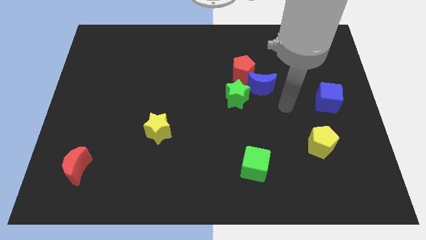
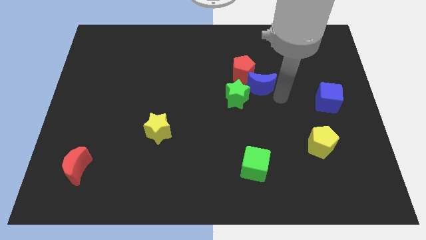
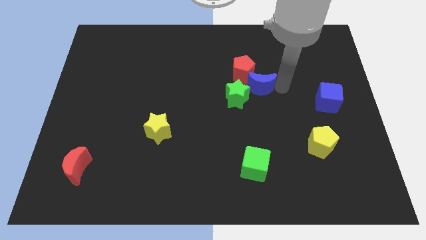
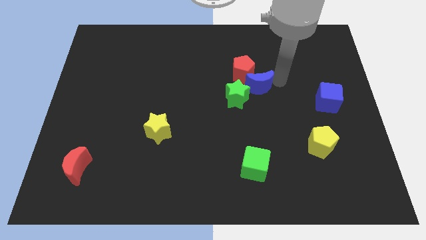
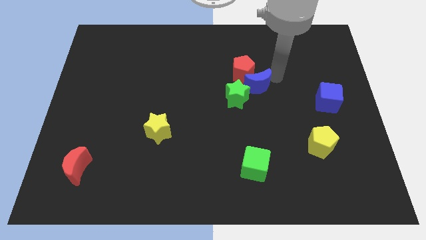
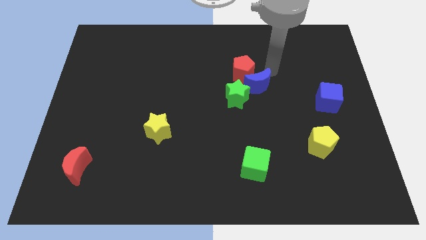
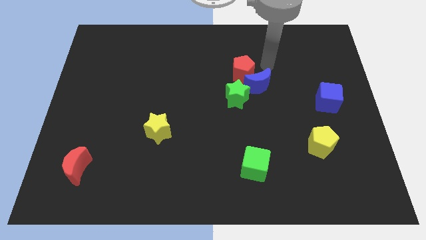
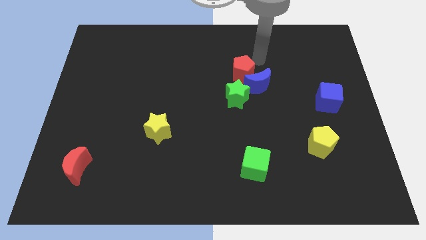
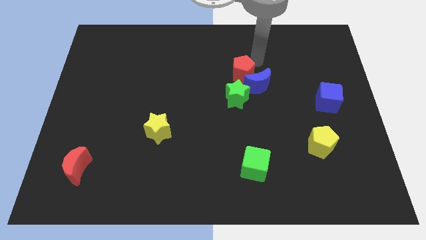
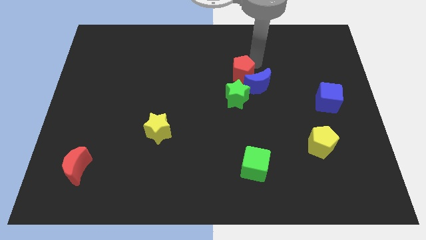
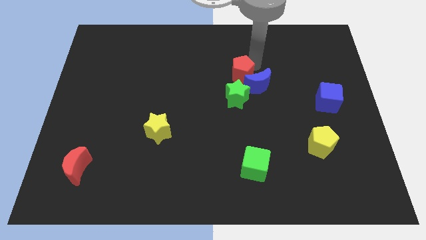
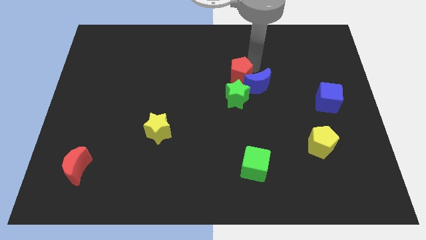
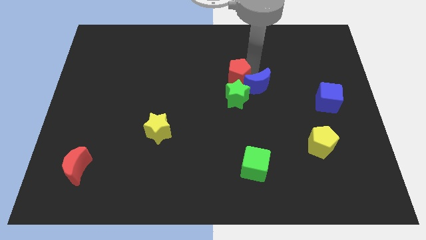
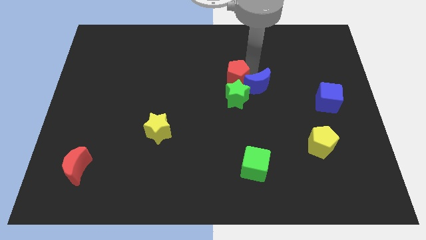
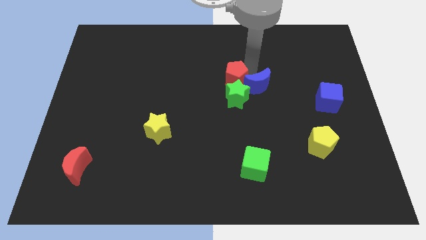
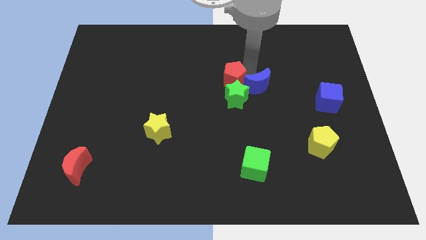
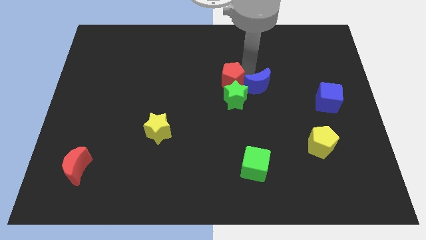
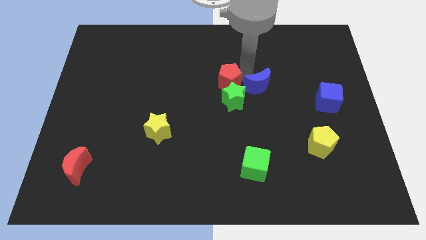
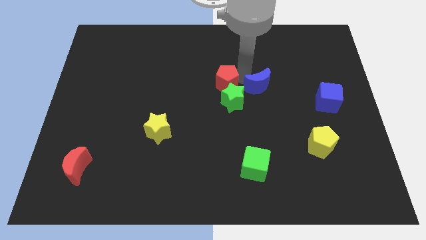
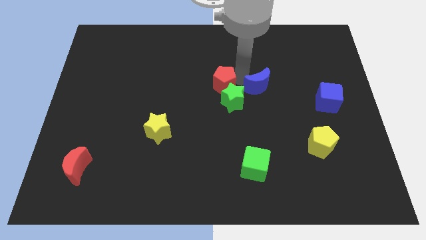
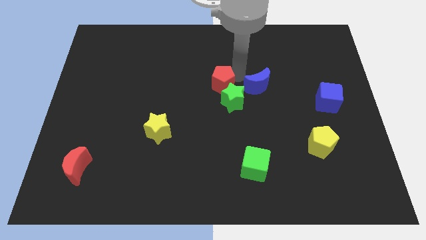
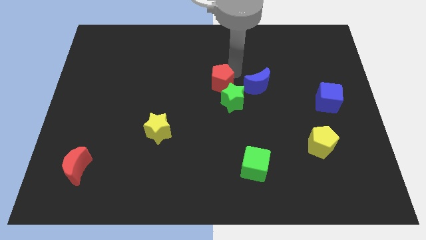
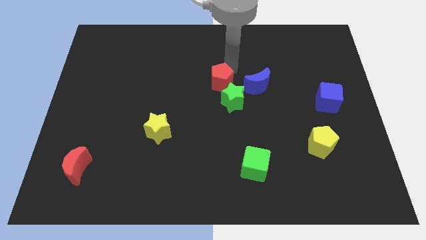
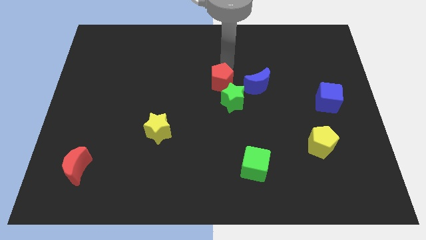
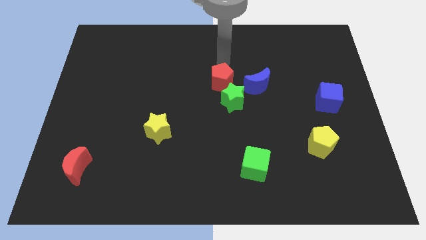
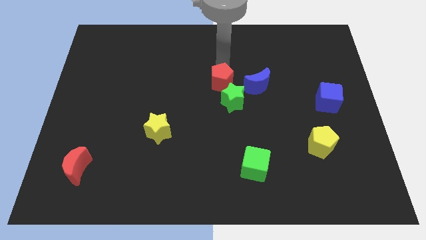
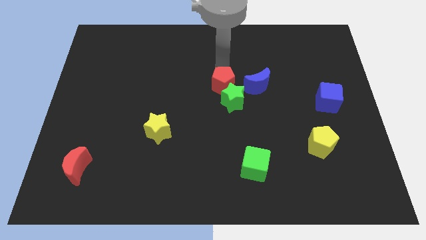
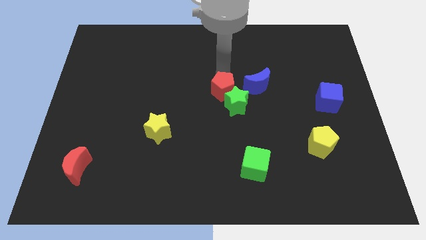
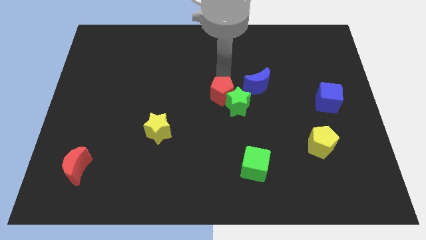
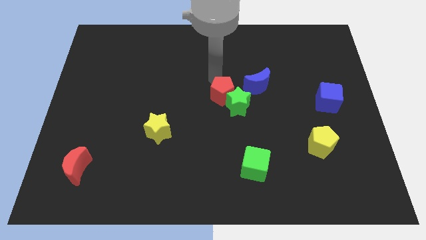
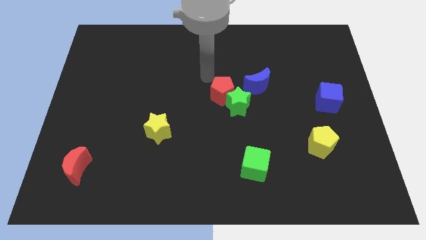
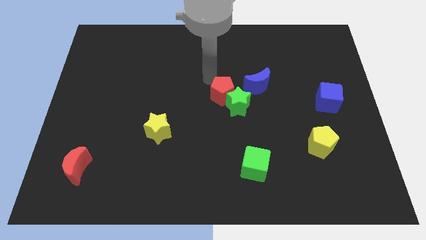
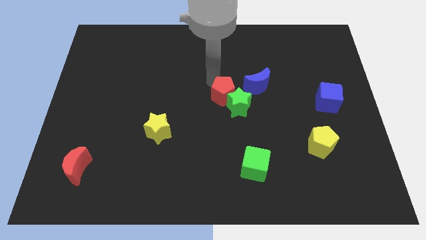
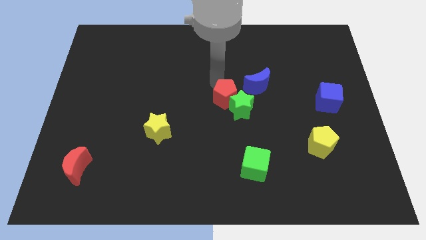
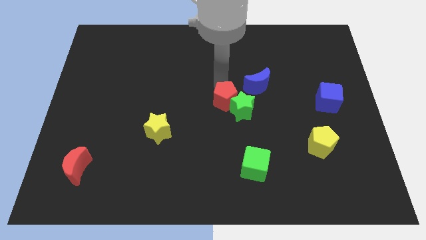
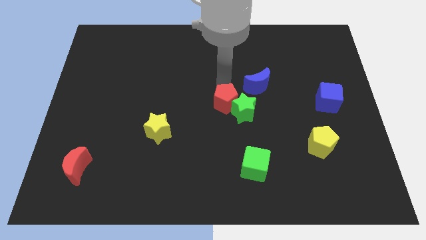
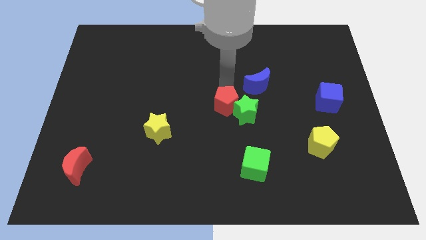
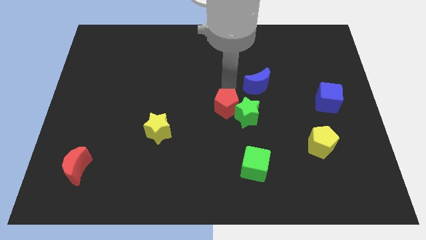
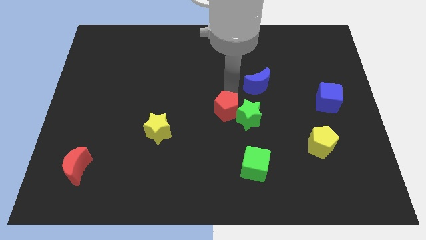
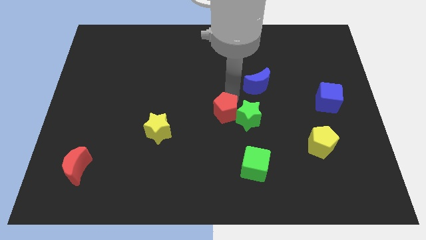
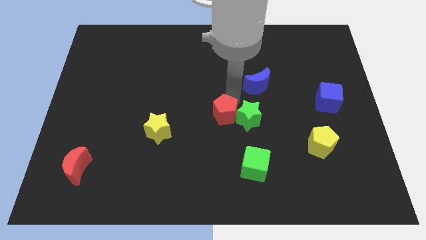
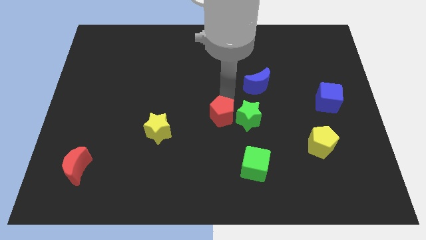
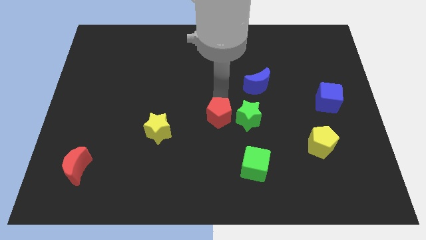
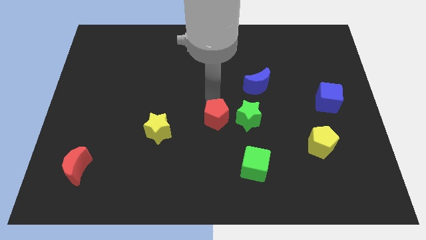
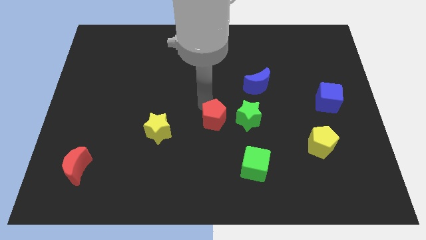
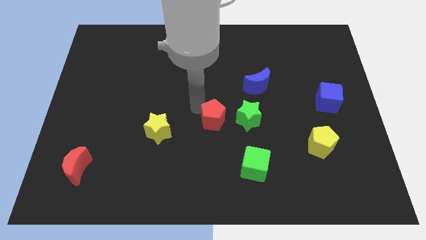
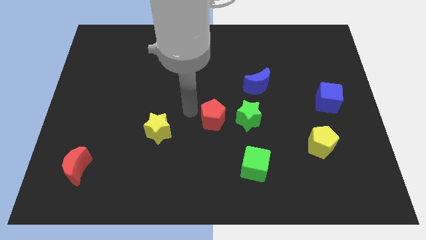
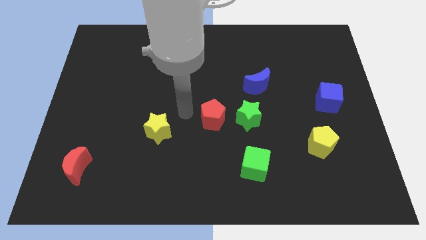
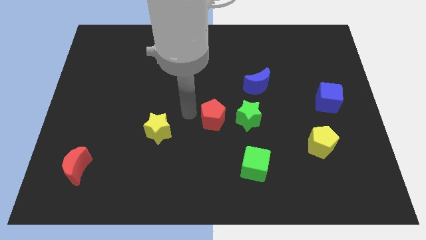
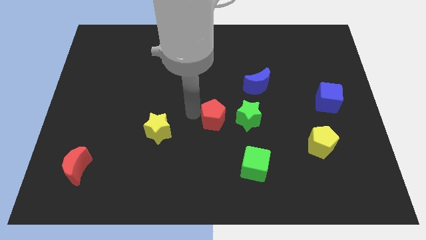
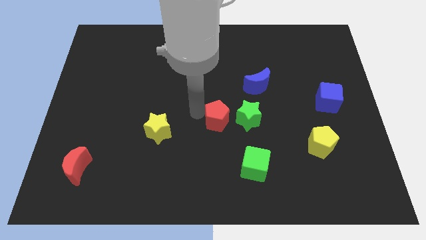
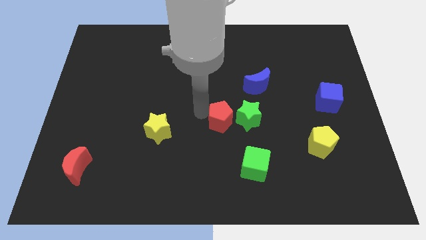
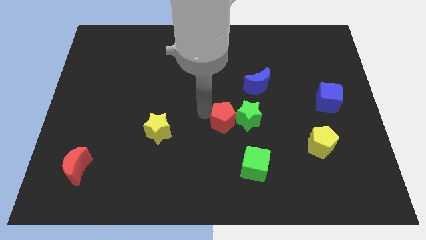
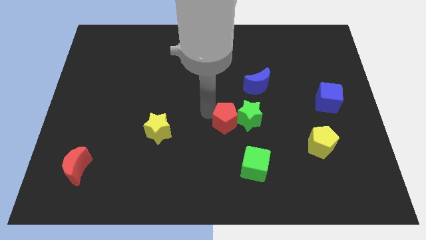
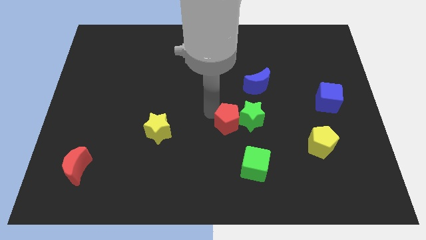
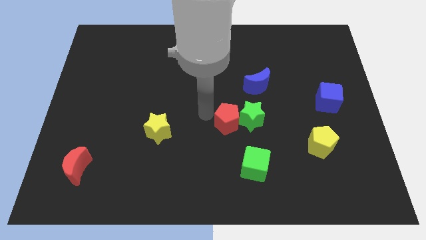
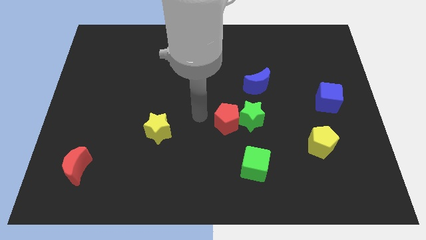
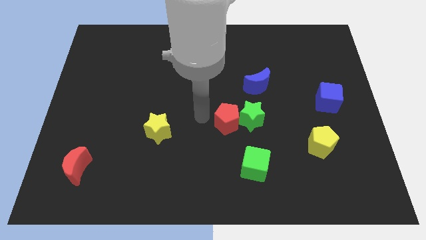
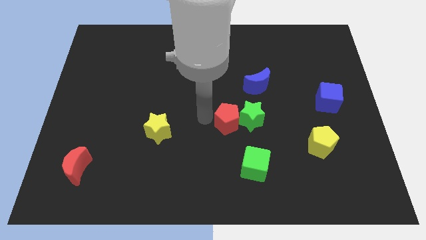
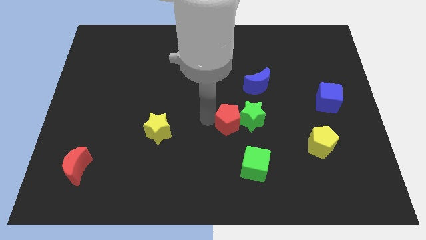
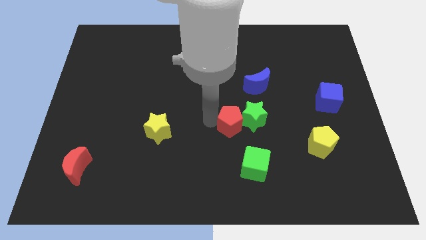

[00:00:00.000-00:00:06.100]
put the red pentagon above the green cube

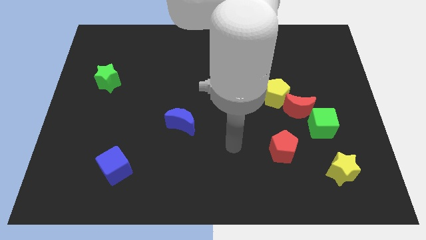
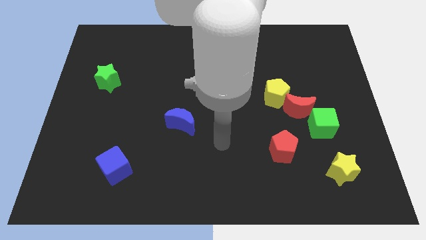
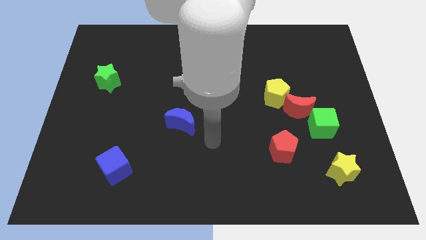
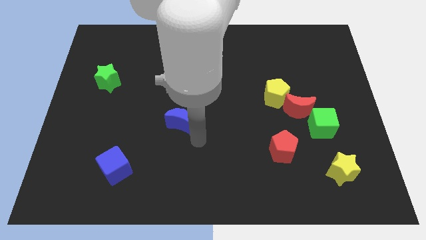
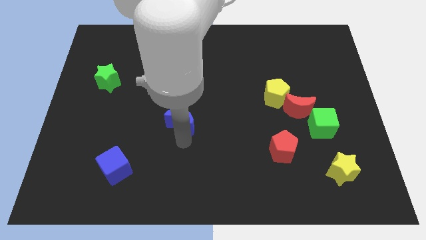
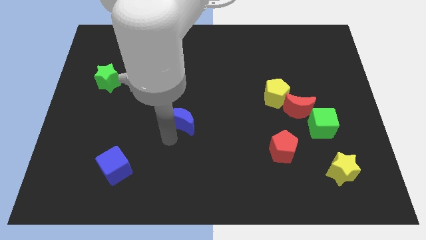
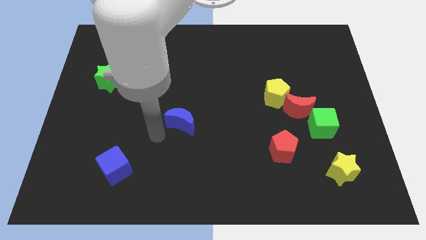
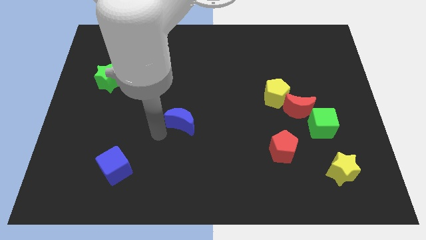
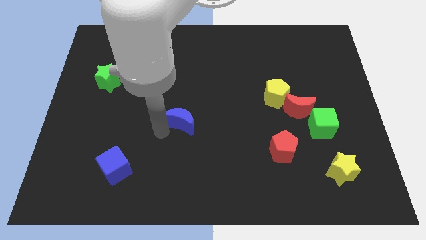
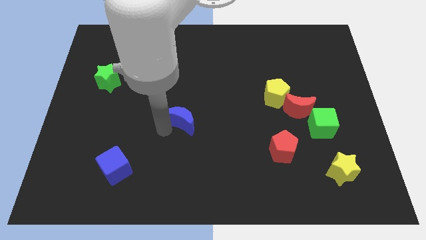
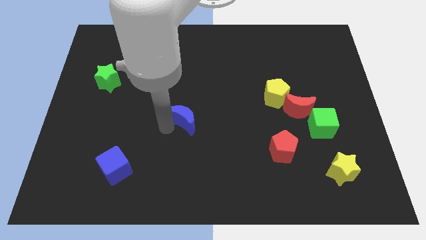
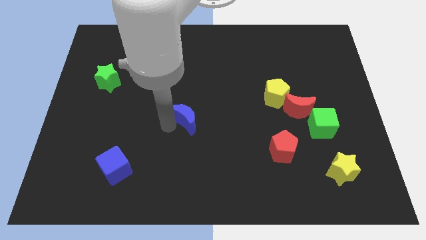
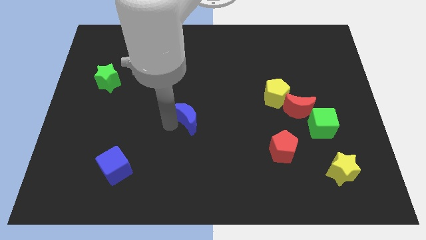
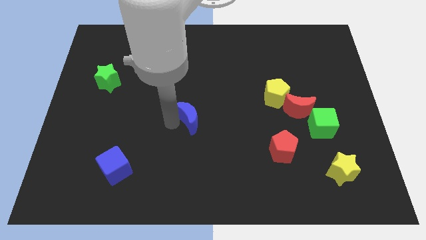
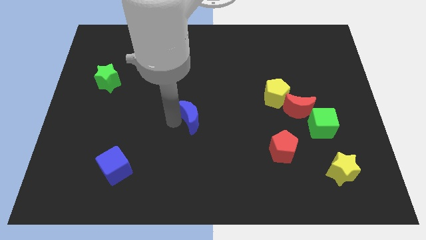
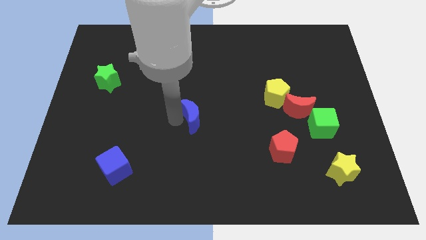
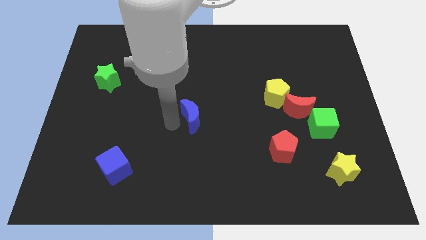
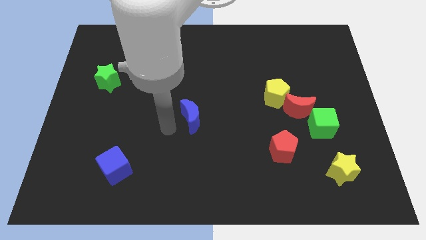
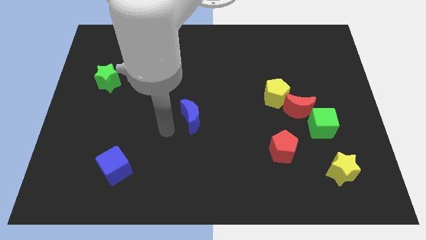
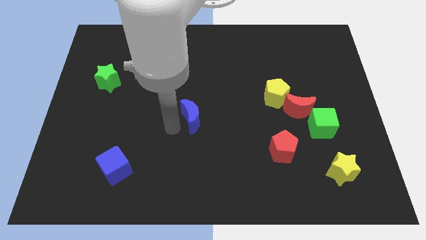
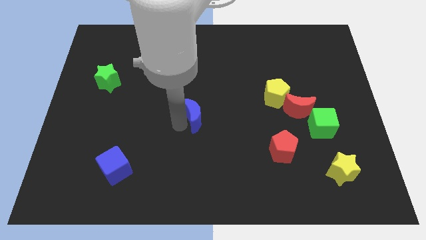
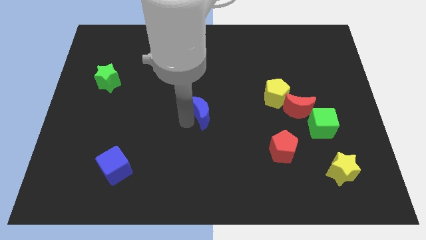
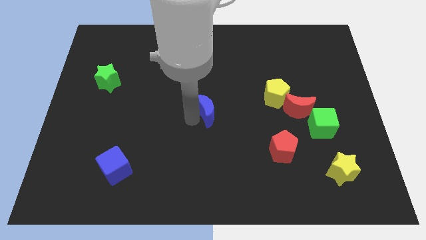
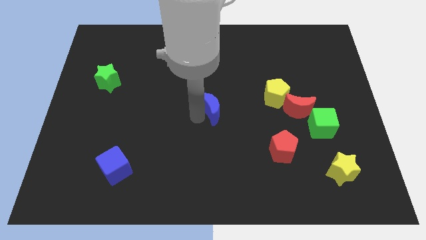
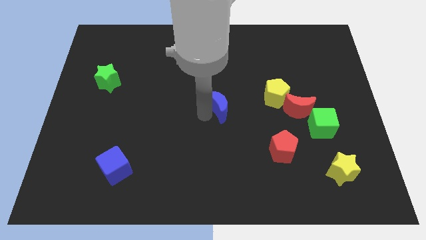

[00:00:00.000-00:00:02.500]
move the blue moon to the left of the yellow pentagon
